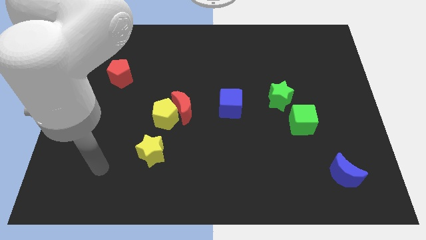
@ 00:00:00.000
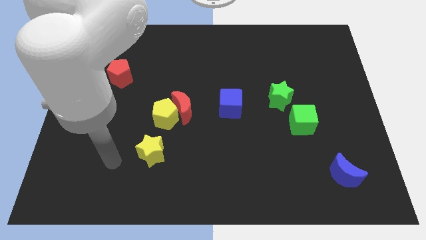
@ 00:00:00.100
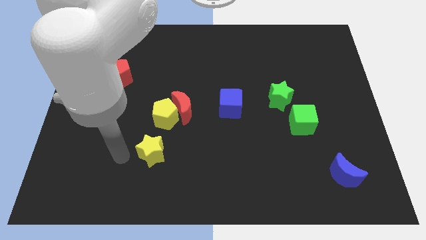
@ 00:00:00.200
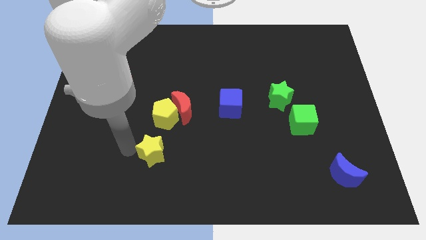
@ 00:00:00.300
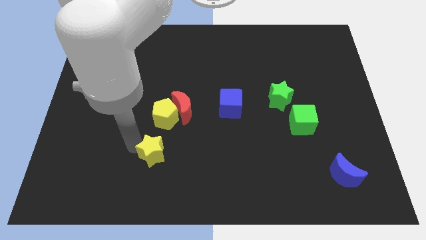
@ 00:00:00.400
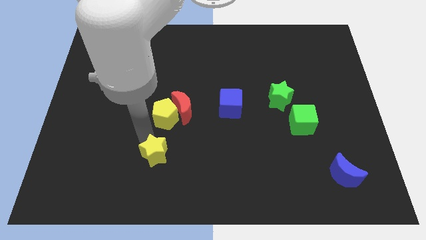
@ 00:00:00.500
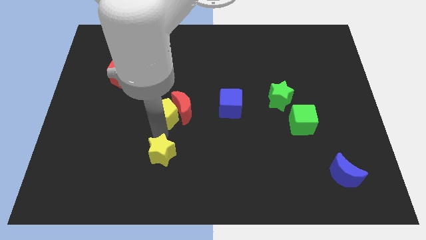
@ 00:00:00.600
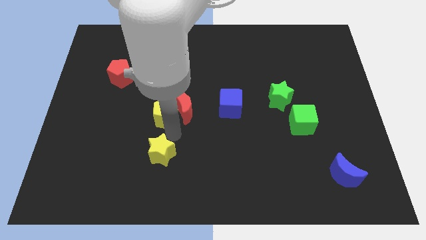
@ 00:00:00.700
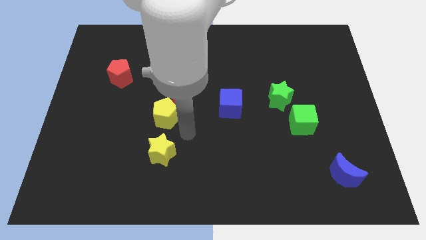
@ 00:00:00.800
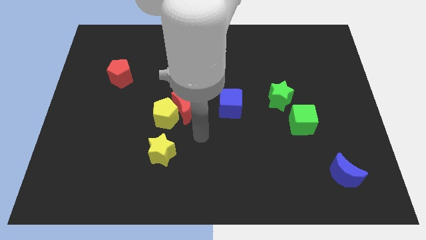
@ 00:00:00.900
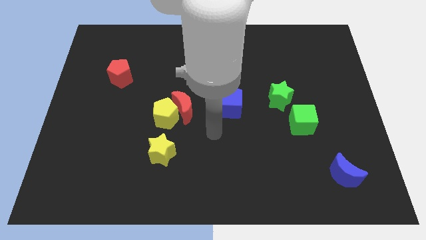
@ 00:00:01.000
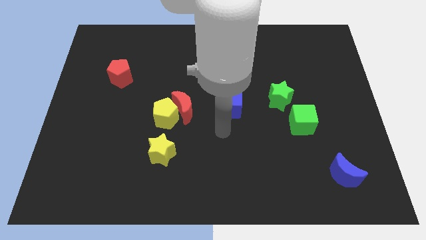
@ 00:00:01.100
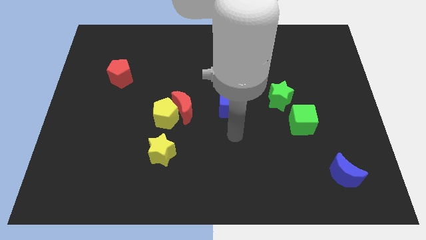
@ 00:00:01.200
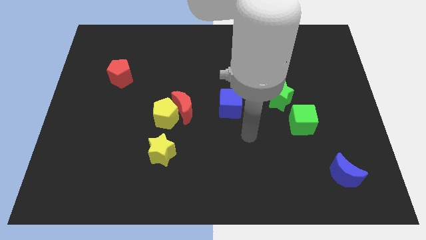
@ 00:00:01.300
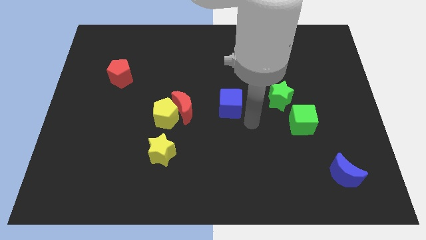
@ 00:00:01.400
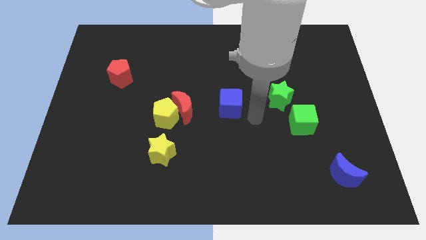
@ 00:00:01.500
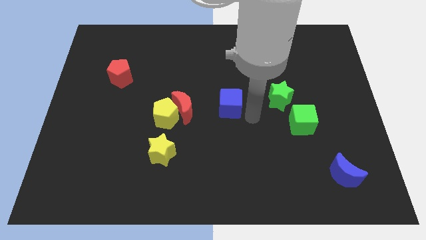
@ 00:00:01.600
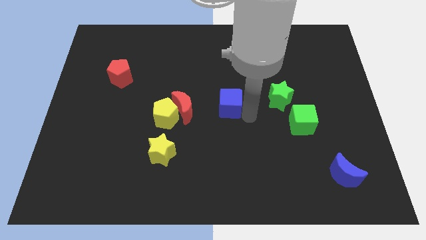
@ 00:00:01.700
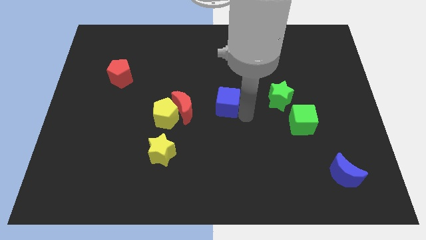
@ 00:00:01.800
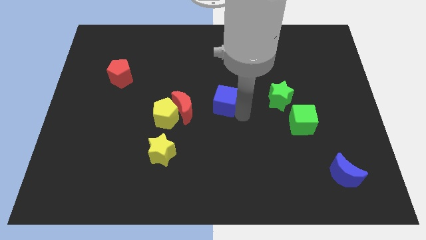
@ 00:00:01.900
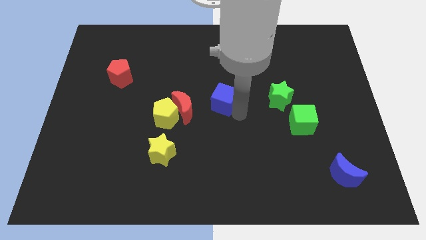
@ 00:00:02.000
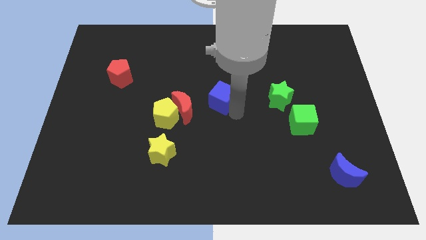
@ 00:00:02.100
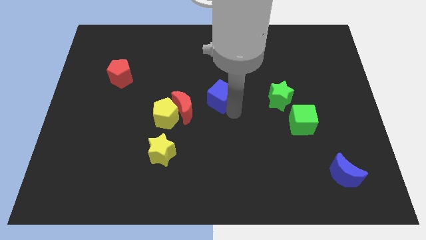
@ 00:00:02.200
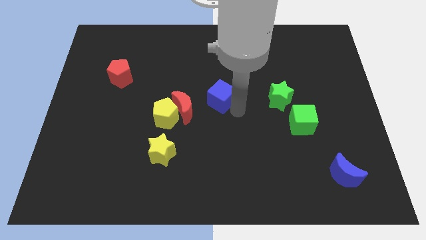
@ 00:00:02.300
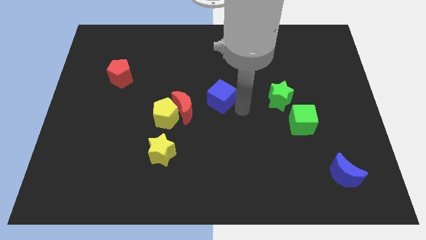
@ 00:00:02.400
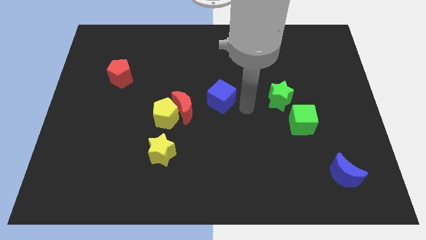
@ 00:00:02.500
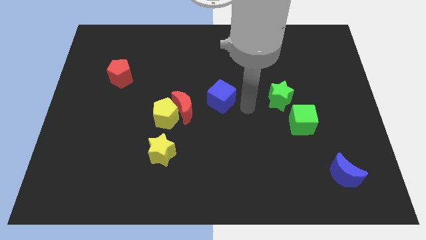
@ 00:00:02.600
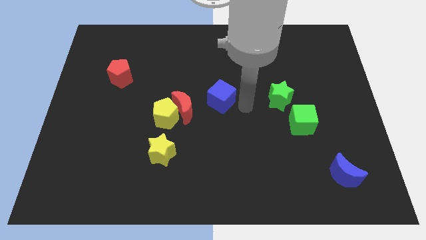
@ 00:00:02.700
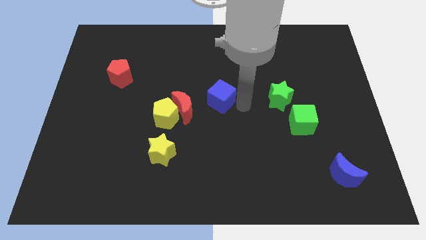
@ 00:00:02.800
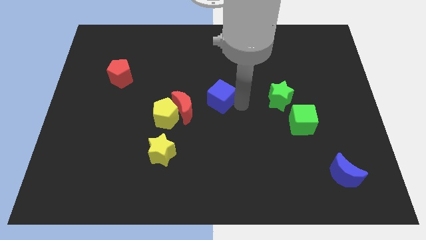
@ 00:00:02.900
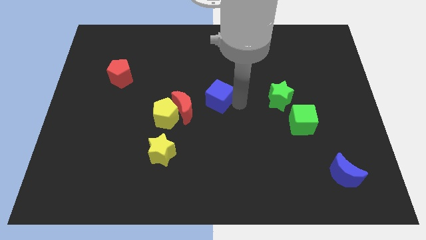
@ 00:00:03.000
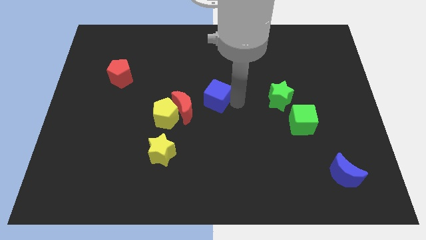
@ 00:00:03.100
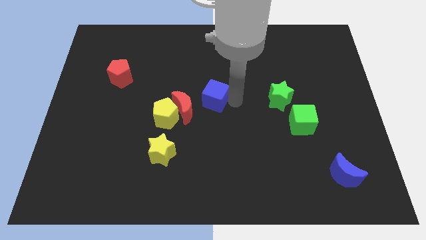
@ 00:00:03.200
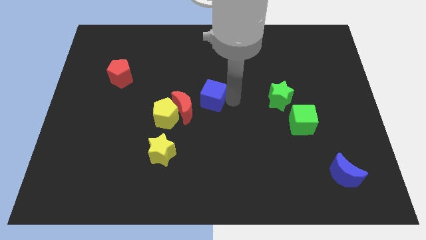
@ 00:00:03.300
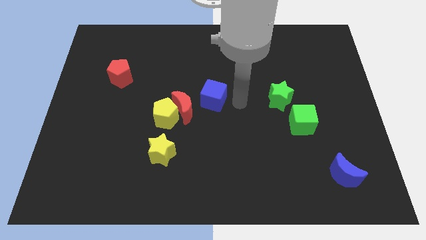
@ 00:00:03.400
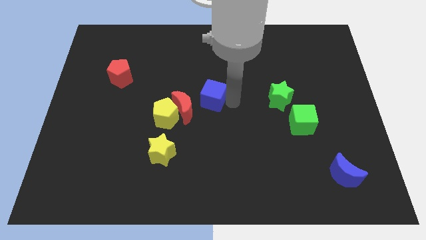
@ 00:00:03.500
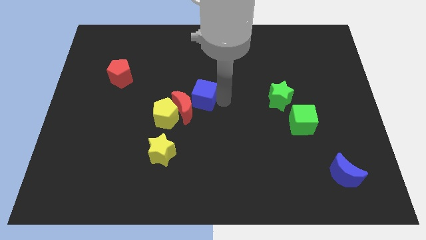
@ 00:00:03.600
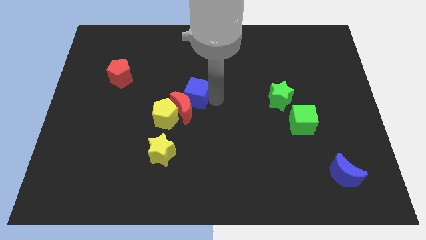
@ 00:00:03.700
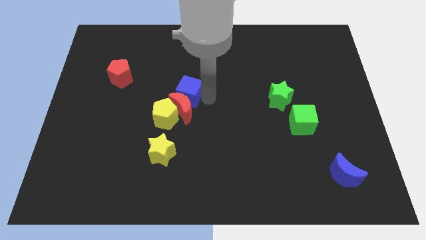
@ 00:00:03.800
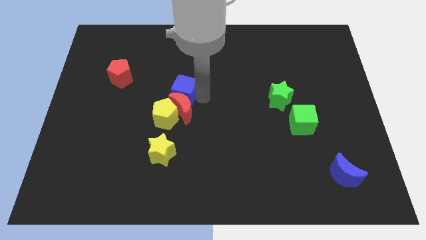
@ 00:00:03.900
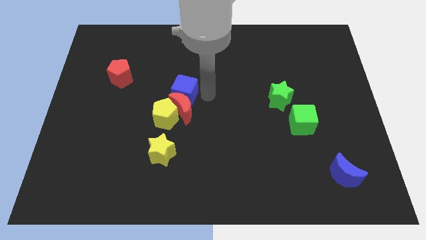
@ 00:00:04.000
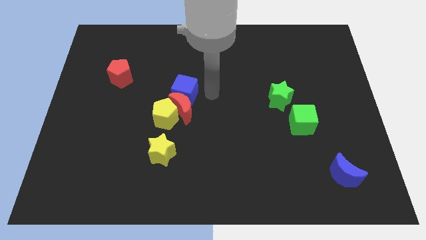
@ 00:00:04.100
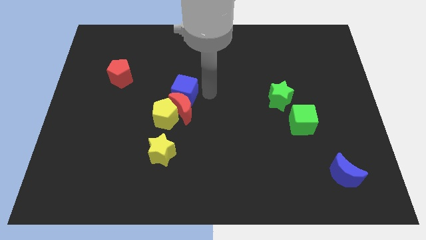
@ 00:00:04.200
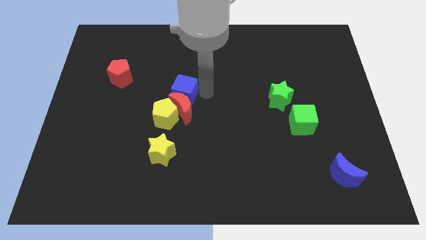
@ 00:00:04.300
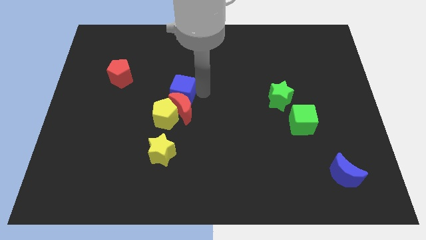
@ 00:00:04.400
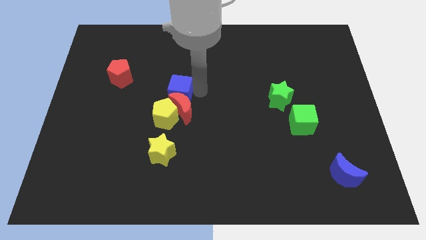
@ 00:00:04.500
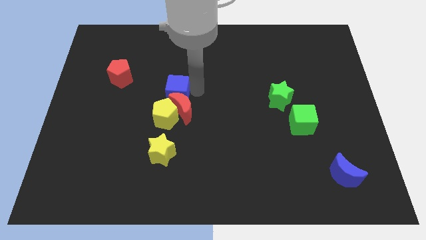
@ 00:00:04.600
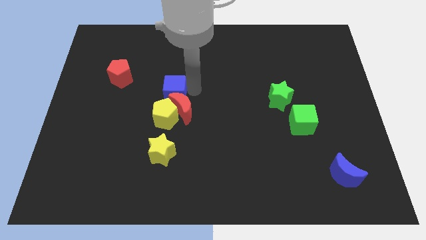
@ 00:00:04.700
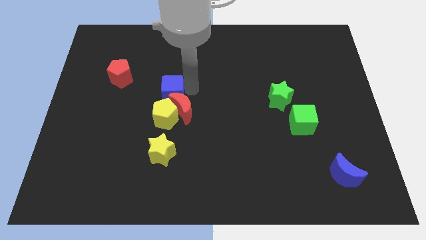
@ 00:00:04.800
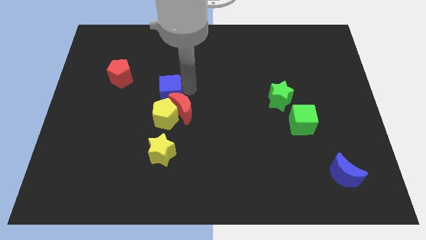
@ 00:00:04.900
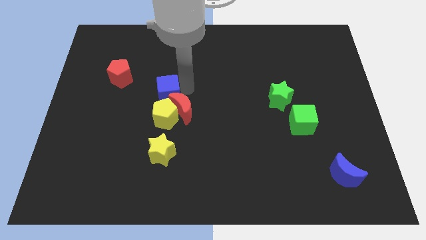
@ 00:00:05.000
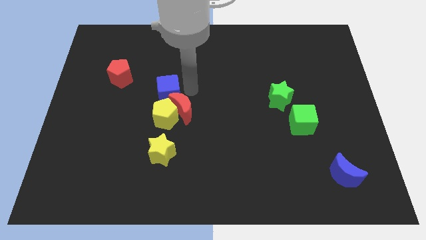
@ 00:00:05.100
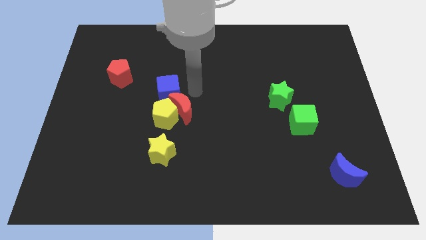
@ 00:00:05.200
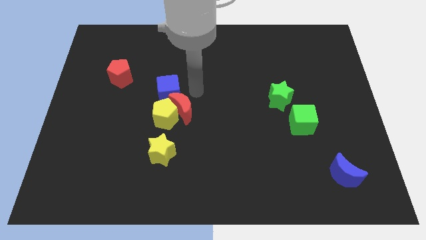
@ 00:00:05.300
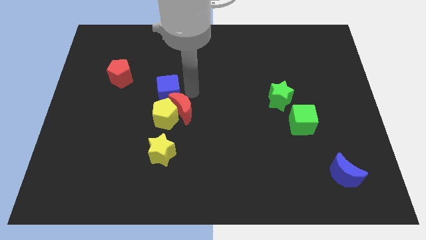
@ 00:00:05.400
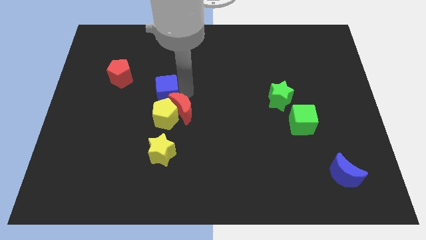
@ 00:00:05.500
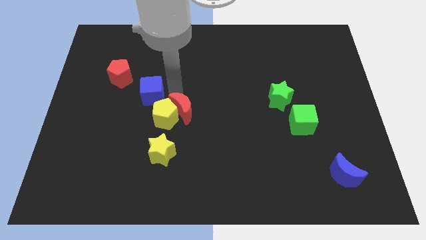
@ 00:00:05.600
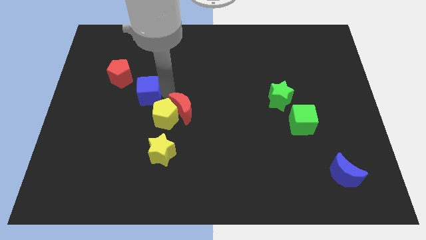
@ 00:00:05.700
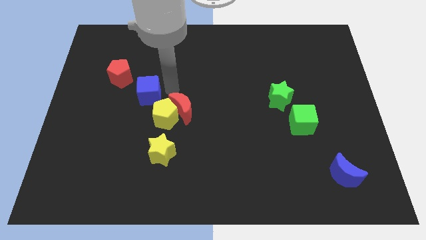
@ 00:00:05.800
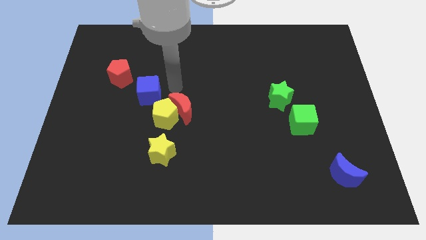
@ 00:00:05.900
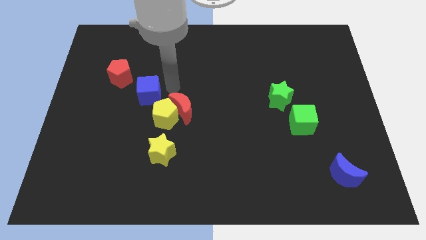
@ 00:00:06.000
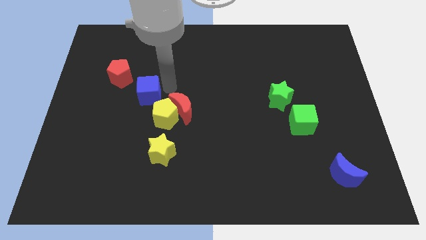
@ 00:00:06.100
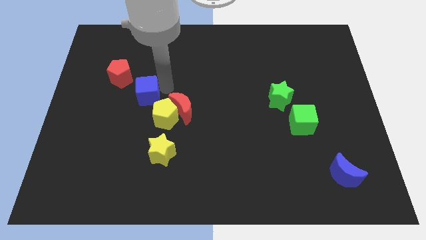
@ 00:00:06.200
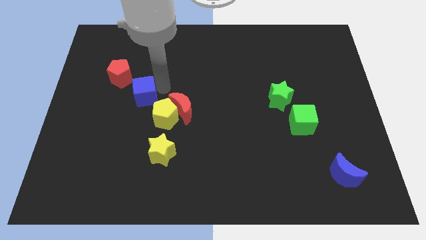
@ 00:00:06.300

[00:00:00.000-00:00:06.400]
move the blue cube to the left

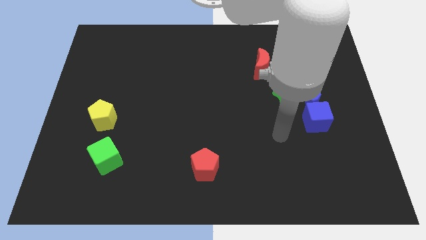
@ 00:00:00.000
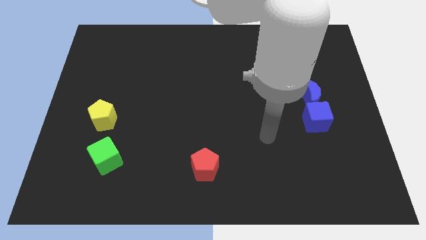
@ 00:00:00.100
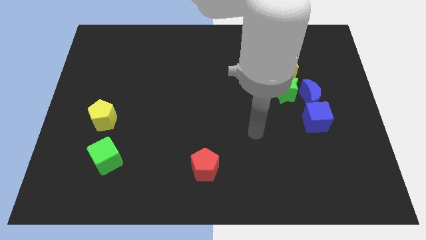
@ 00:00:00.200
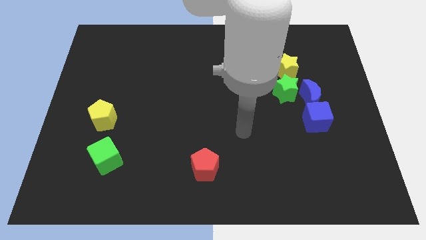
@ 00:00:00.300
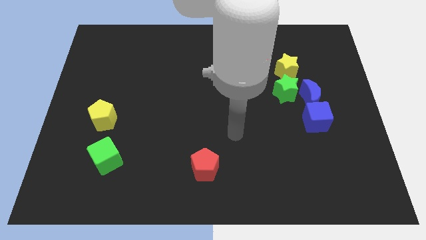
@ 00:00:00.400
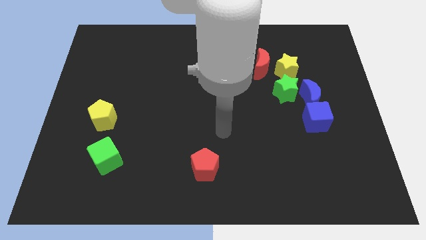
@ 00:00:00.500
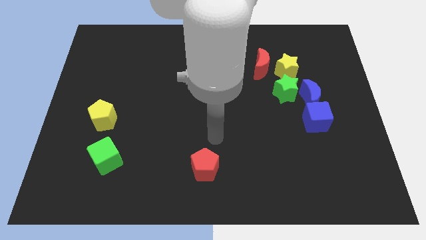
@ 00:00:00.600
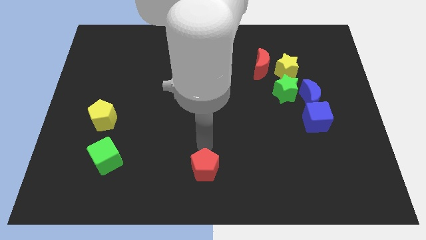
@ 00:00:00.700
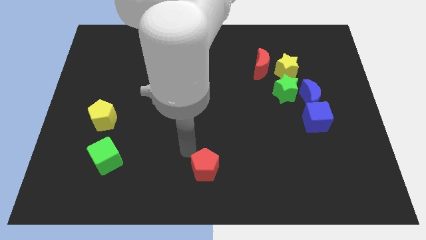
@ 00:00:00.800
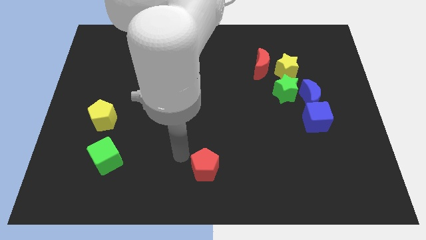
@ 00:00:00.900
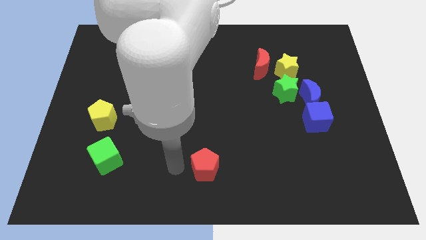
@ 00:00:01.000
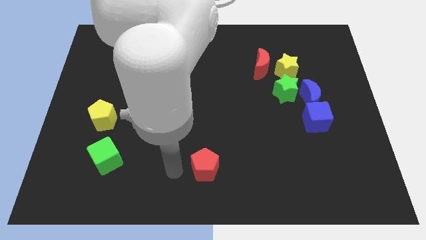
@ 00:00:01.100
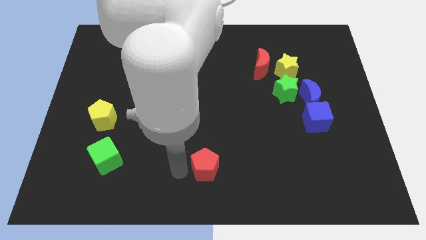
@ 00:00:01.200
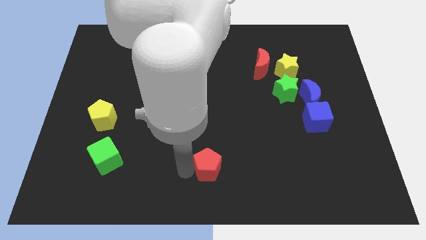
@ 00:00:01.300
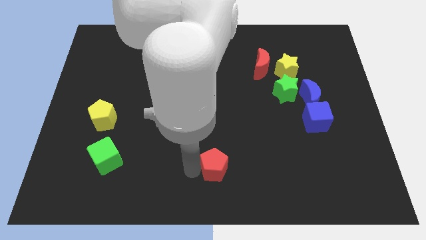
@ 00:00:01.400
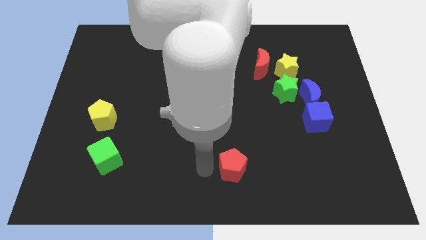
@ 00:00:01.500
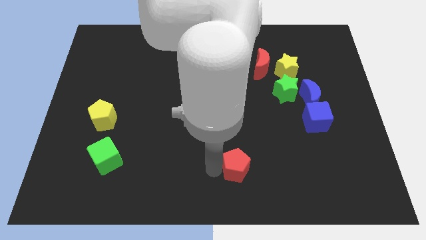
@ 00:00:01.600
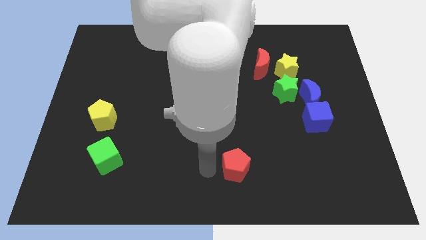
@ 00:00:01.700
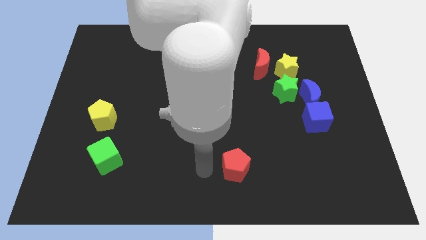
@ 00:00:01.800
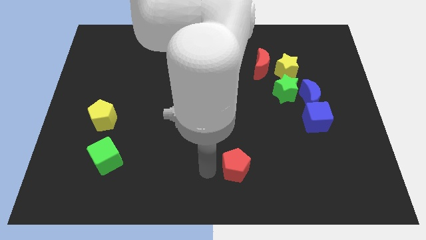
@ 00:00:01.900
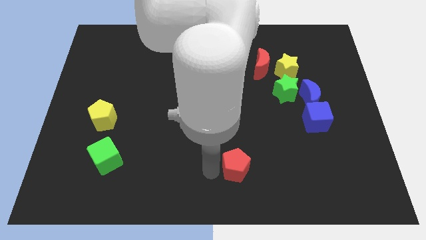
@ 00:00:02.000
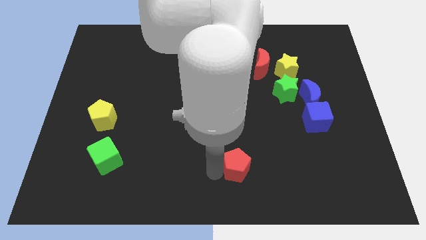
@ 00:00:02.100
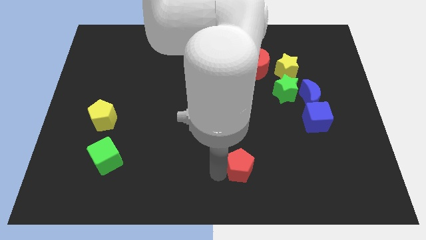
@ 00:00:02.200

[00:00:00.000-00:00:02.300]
slightly move the red pentagon right
